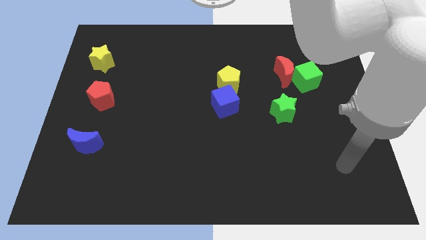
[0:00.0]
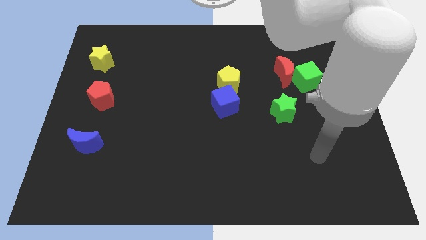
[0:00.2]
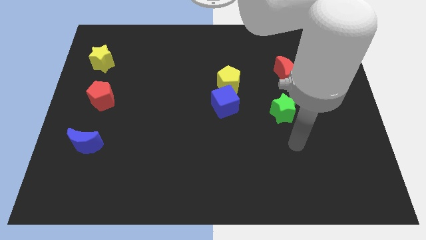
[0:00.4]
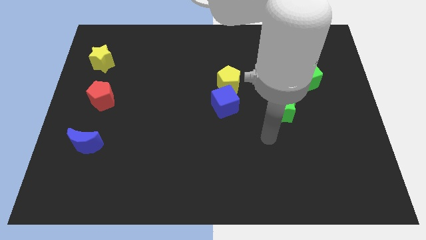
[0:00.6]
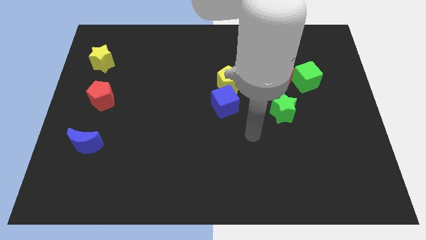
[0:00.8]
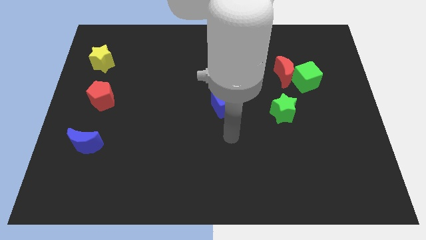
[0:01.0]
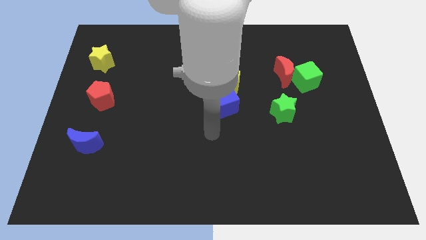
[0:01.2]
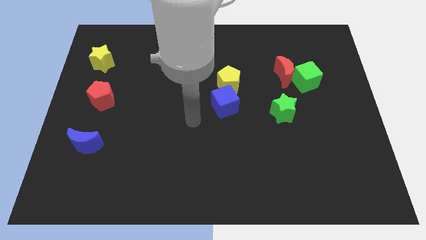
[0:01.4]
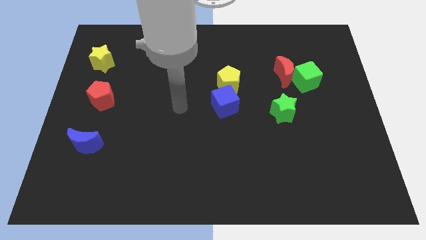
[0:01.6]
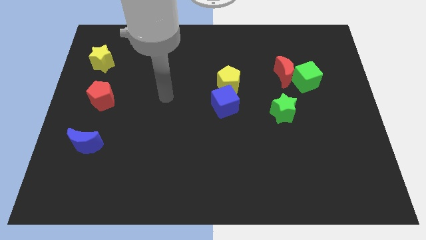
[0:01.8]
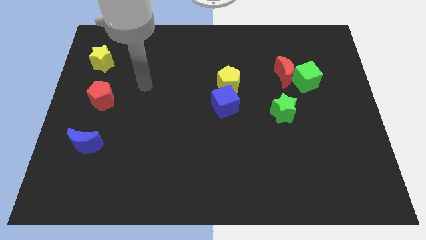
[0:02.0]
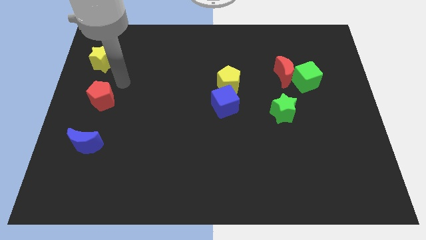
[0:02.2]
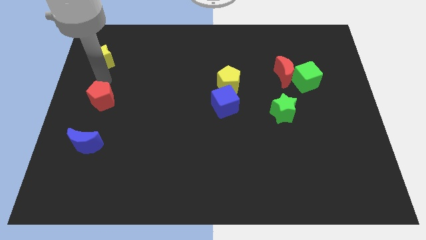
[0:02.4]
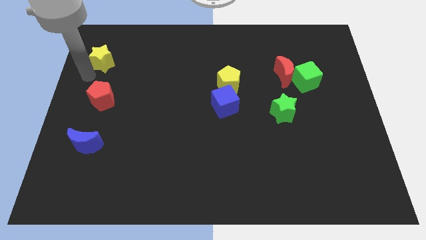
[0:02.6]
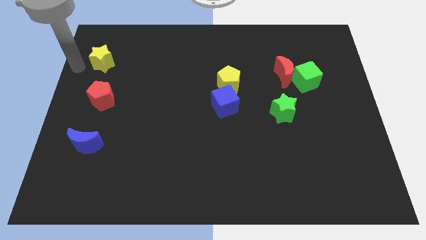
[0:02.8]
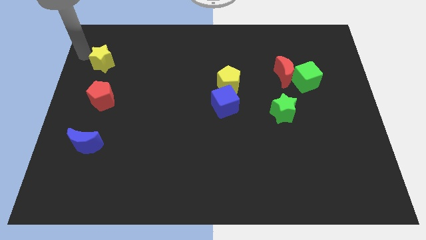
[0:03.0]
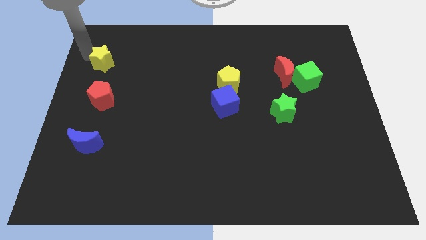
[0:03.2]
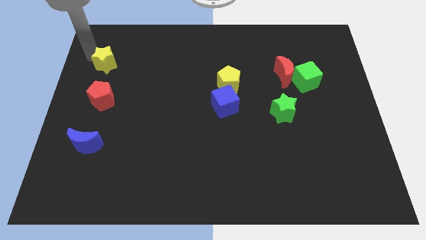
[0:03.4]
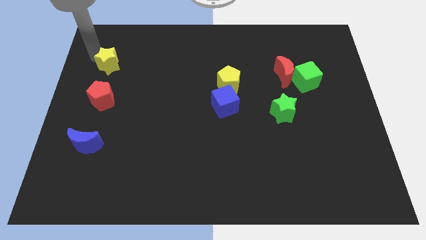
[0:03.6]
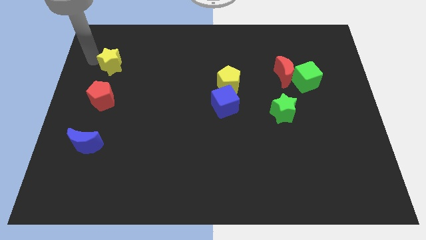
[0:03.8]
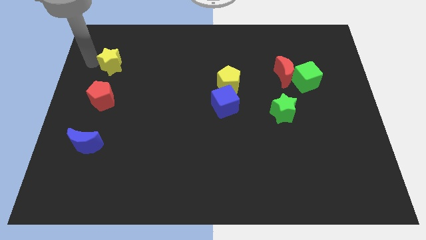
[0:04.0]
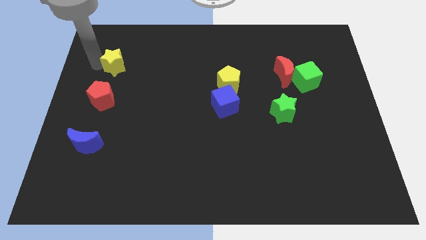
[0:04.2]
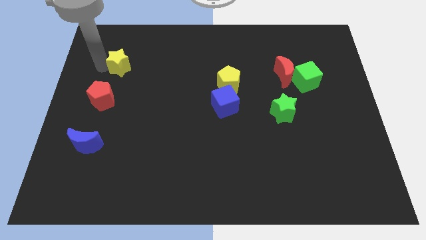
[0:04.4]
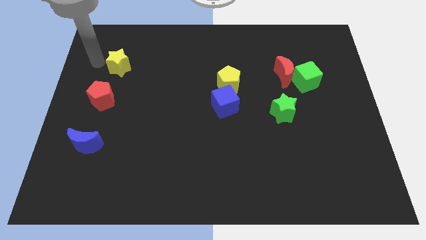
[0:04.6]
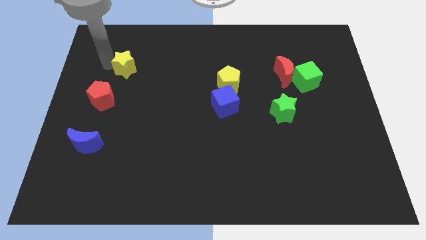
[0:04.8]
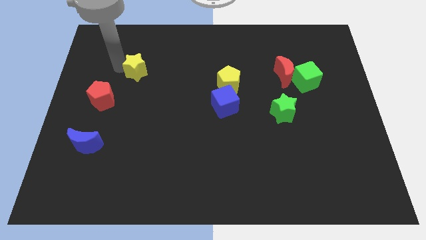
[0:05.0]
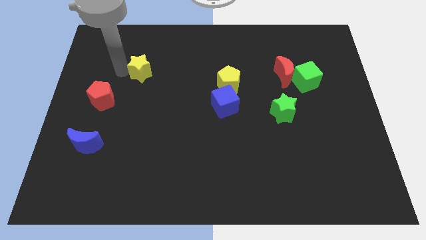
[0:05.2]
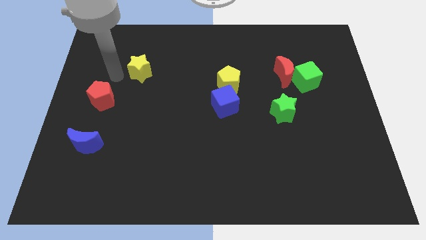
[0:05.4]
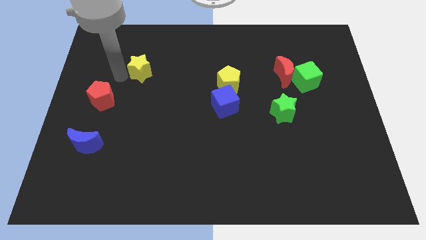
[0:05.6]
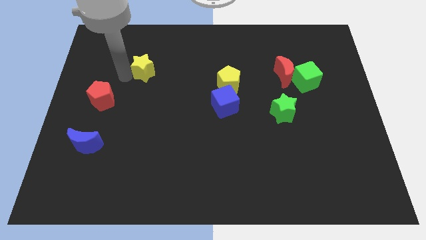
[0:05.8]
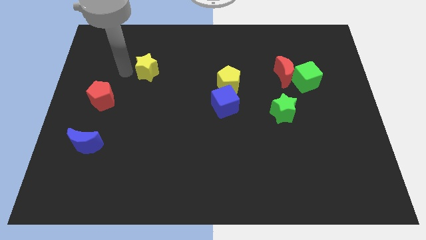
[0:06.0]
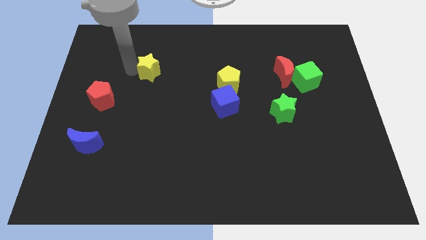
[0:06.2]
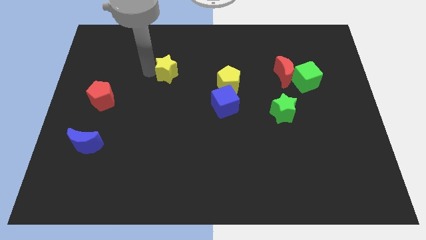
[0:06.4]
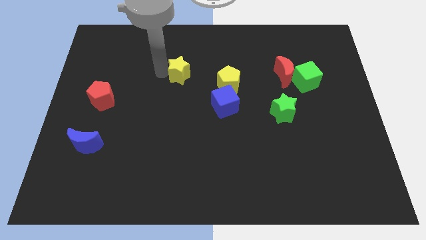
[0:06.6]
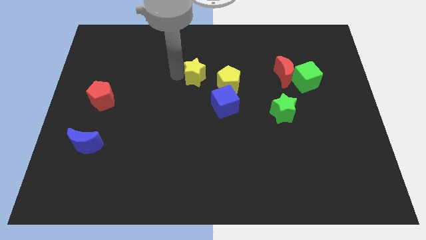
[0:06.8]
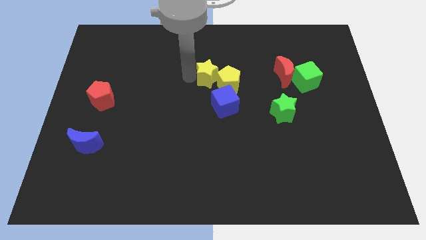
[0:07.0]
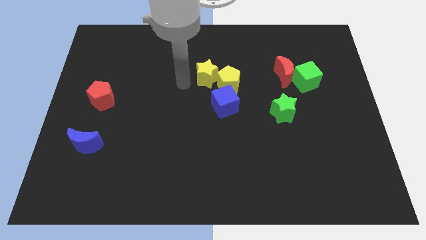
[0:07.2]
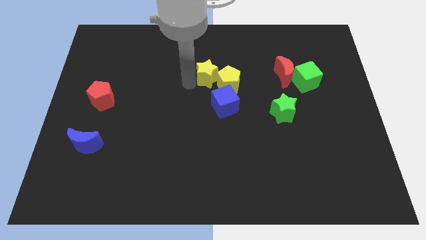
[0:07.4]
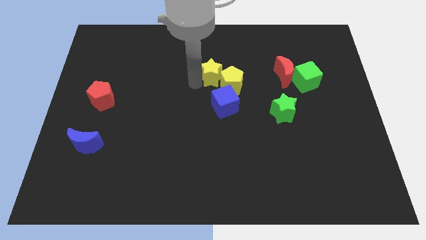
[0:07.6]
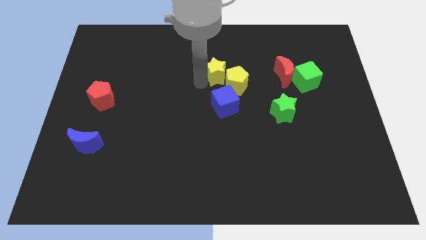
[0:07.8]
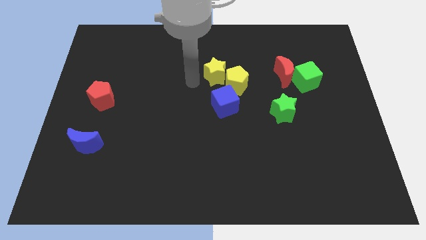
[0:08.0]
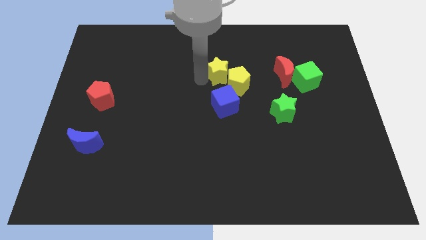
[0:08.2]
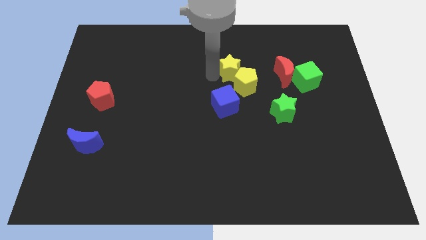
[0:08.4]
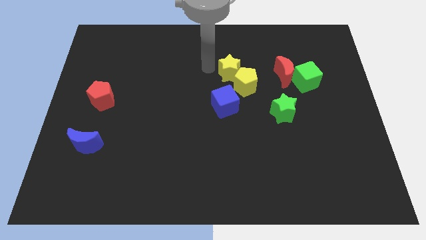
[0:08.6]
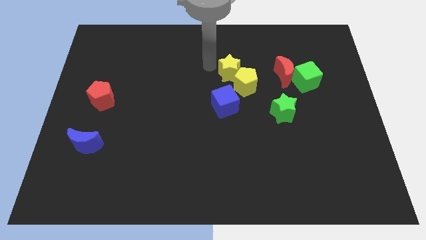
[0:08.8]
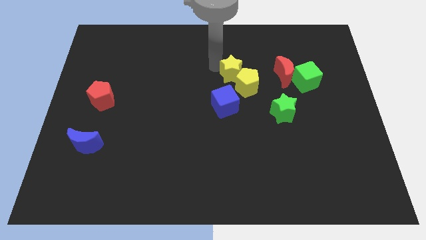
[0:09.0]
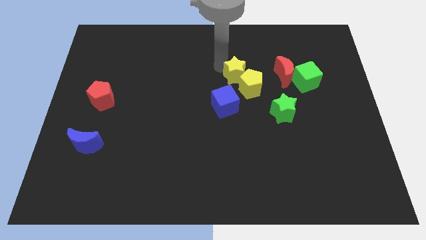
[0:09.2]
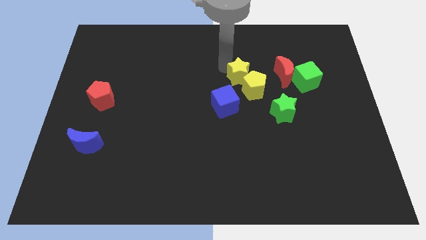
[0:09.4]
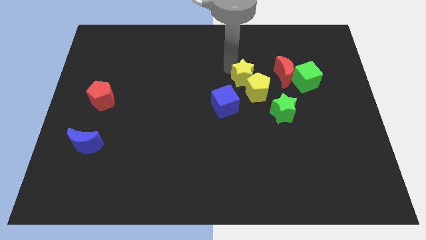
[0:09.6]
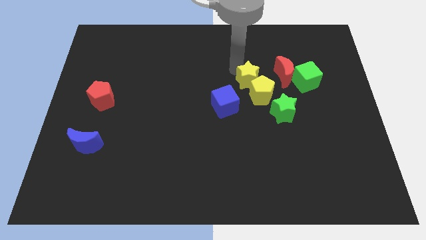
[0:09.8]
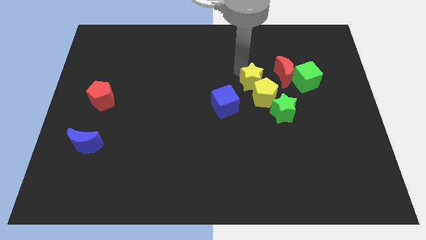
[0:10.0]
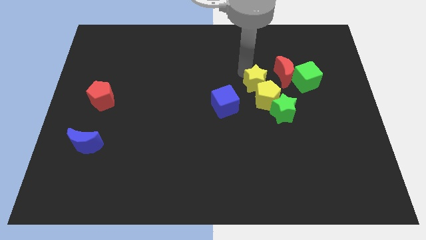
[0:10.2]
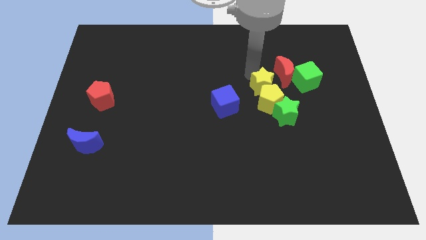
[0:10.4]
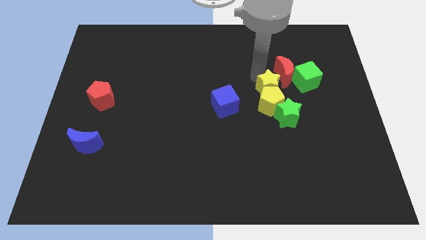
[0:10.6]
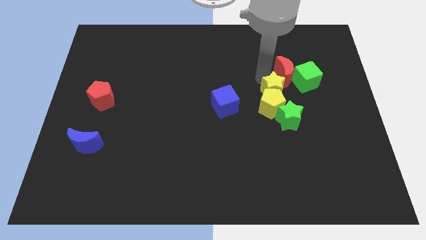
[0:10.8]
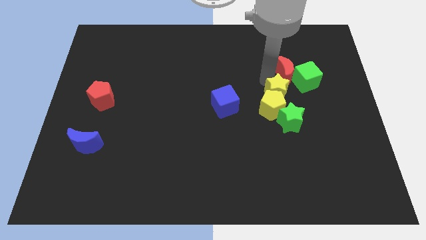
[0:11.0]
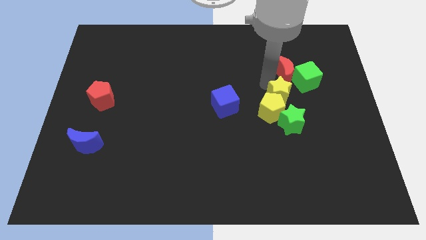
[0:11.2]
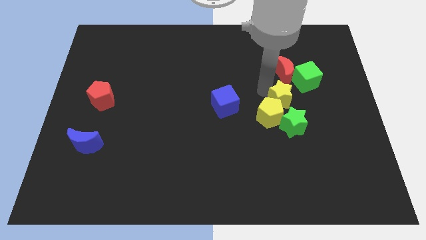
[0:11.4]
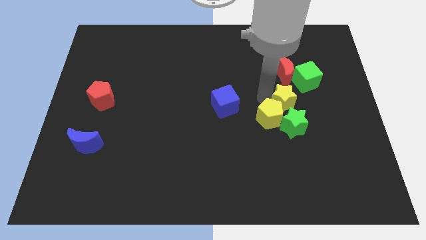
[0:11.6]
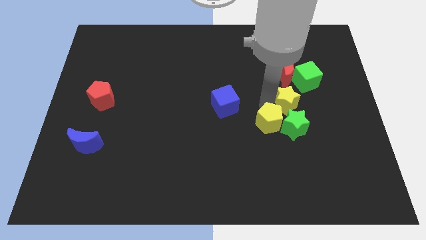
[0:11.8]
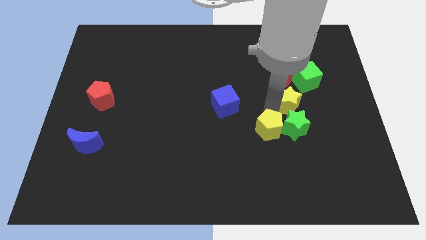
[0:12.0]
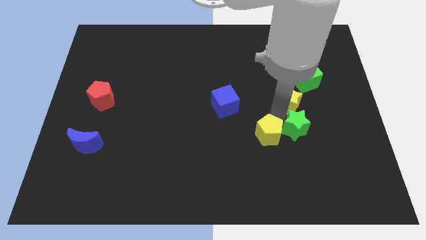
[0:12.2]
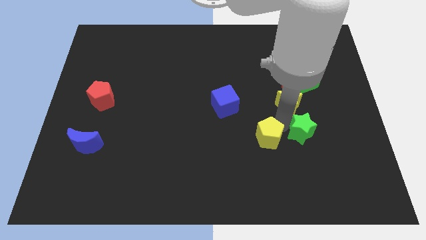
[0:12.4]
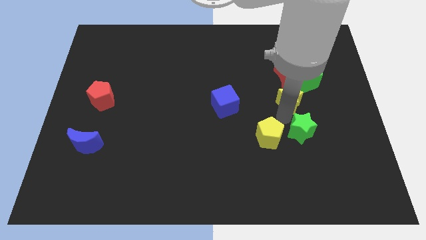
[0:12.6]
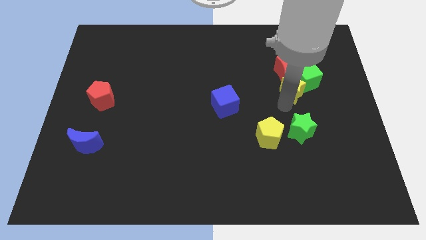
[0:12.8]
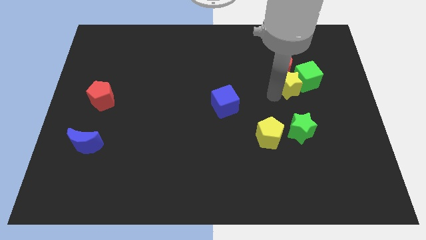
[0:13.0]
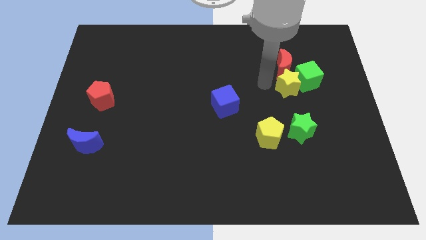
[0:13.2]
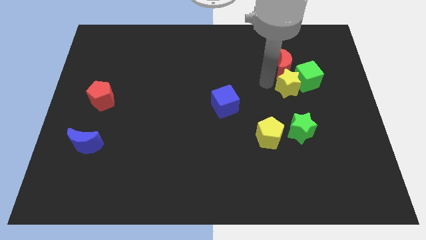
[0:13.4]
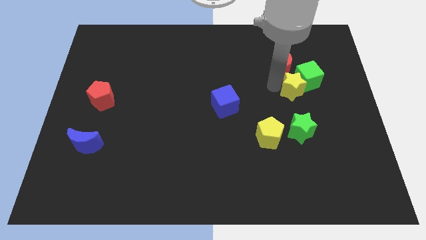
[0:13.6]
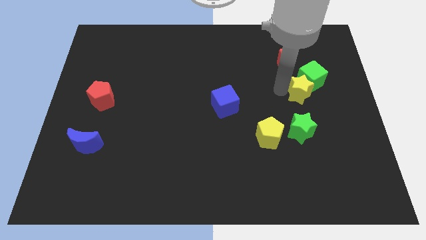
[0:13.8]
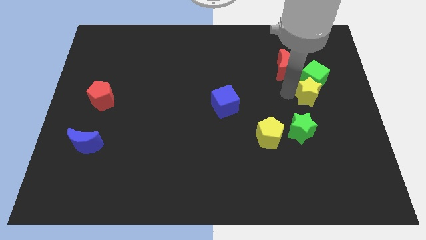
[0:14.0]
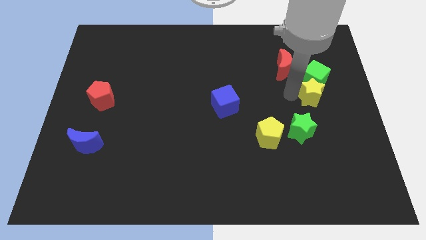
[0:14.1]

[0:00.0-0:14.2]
slide the yellow star to the bottom right of the green cube

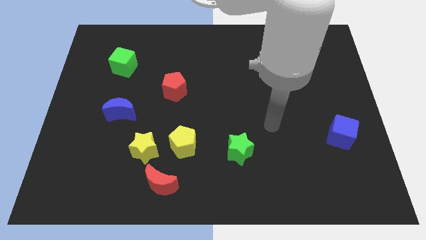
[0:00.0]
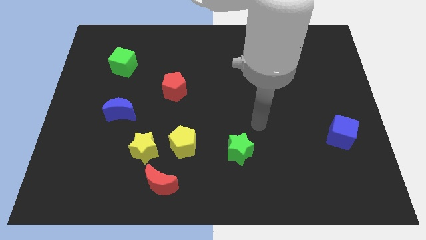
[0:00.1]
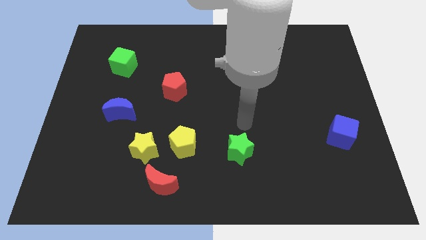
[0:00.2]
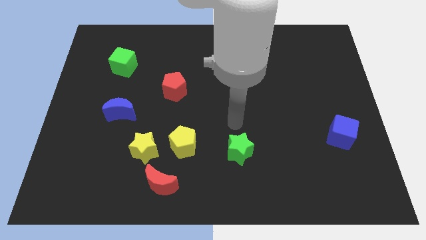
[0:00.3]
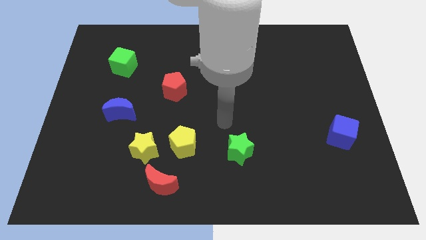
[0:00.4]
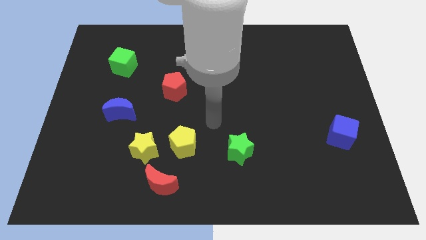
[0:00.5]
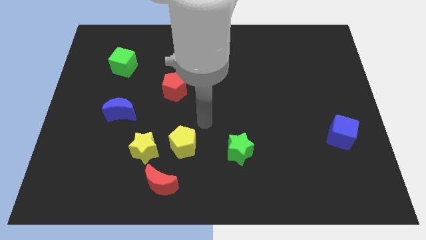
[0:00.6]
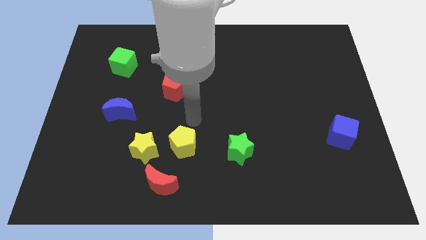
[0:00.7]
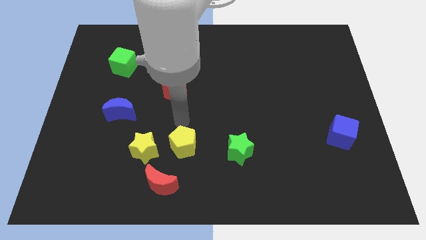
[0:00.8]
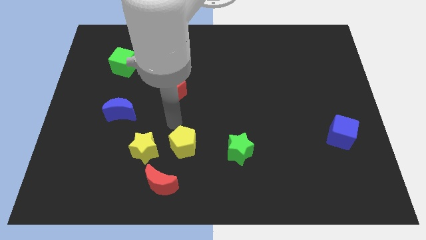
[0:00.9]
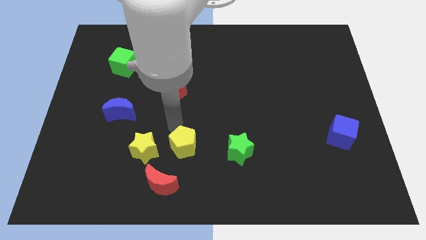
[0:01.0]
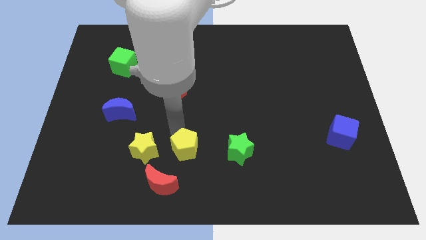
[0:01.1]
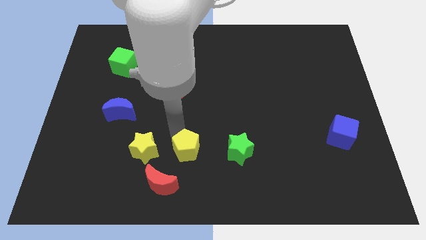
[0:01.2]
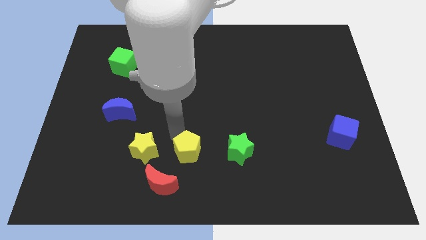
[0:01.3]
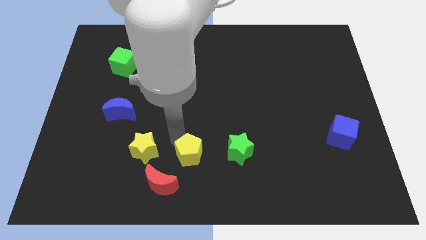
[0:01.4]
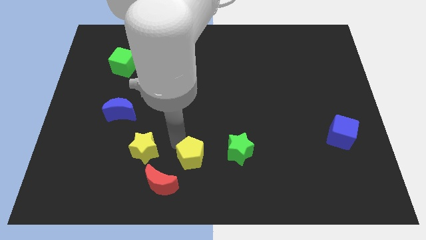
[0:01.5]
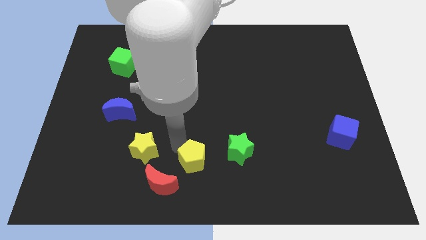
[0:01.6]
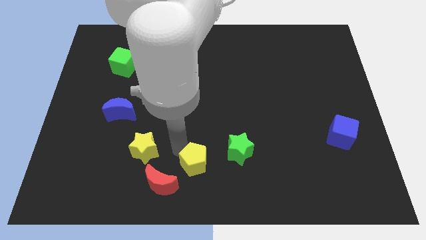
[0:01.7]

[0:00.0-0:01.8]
push the yellow pentagon to the right side of the red moon
